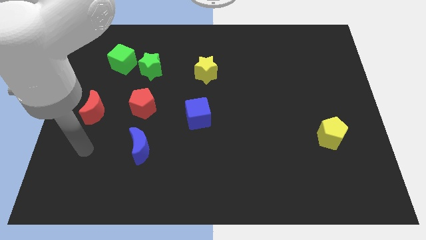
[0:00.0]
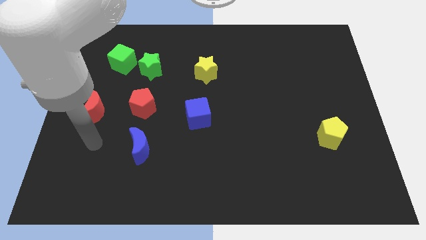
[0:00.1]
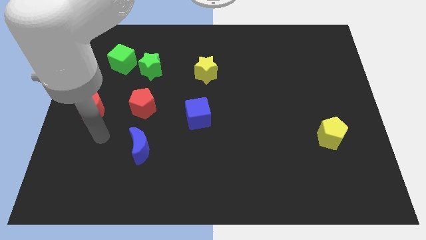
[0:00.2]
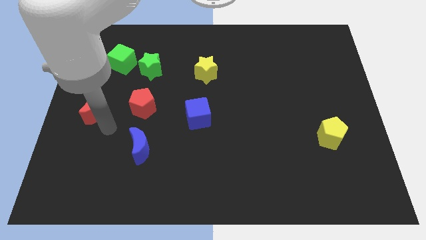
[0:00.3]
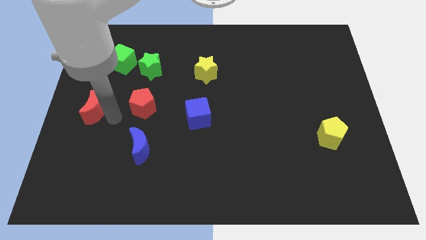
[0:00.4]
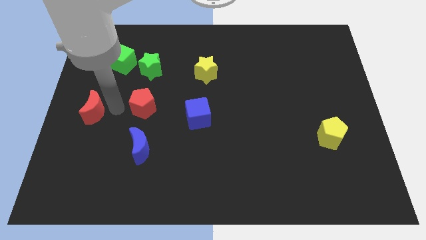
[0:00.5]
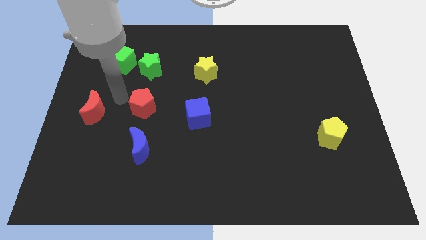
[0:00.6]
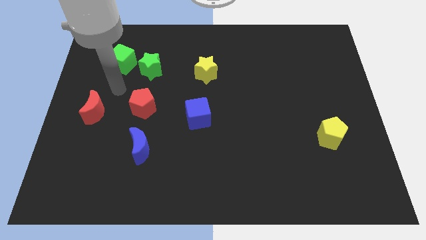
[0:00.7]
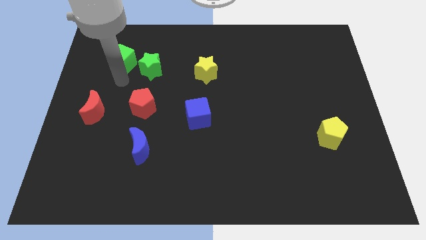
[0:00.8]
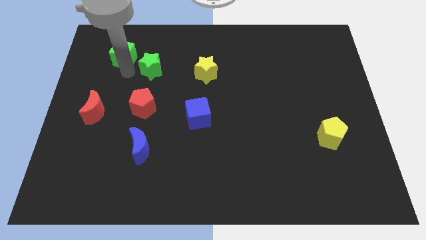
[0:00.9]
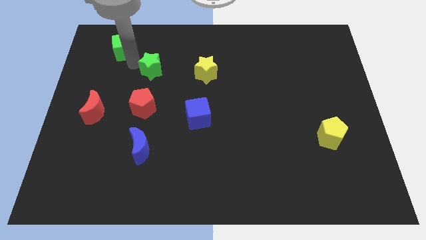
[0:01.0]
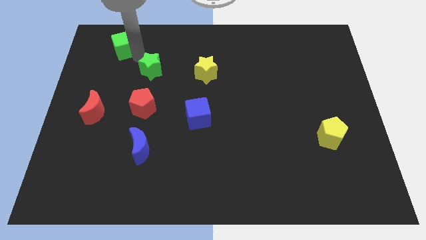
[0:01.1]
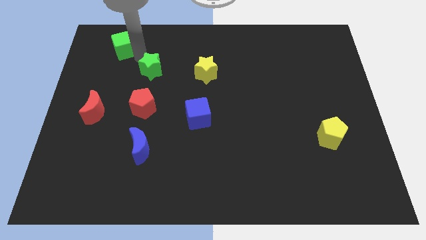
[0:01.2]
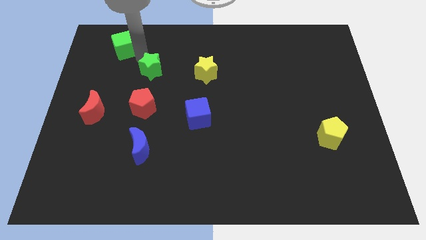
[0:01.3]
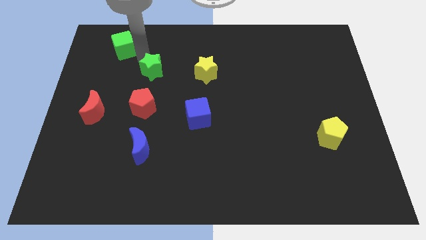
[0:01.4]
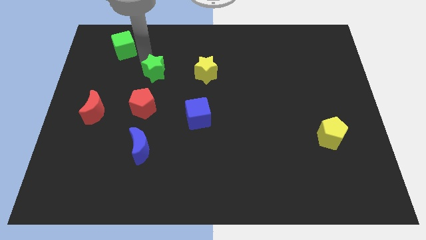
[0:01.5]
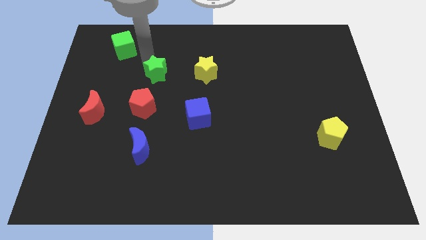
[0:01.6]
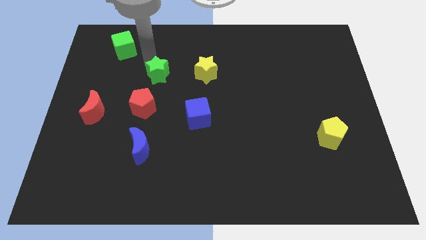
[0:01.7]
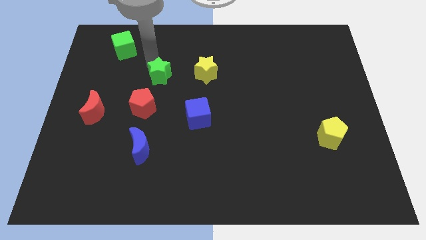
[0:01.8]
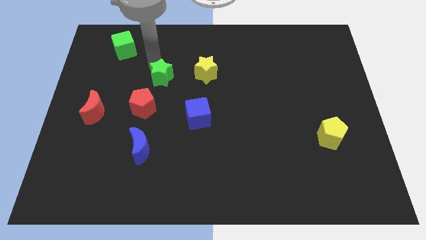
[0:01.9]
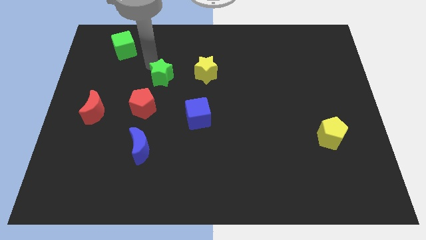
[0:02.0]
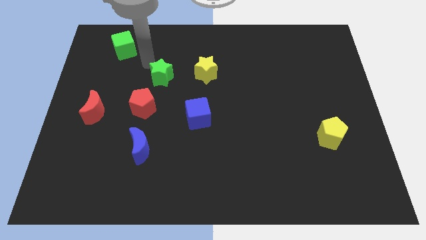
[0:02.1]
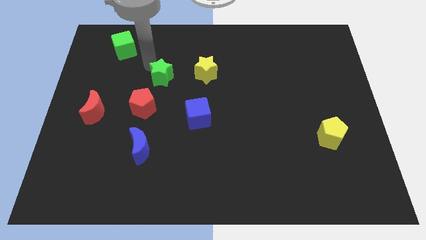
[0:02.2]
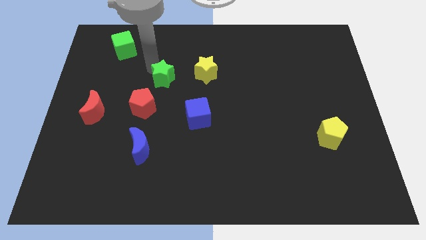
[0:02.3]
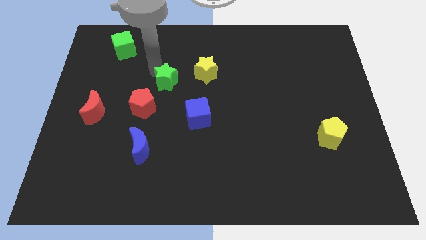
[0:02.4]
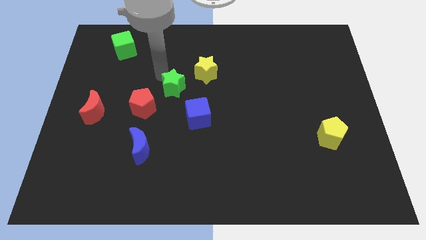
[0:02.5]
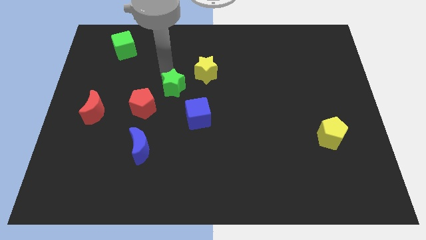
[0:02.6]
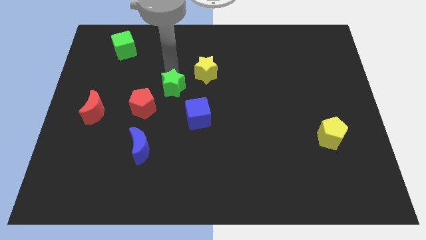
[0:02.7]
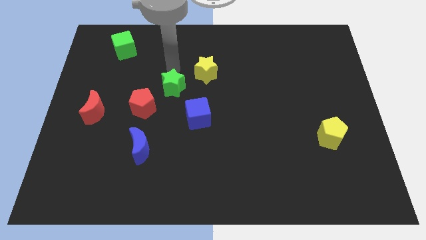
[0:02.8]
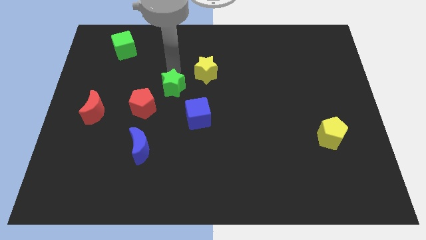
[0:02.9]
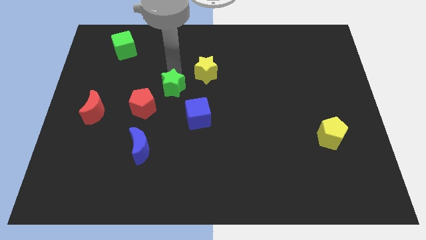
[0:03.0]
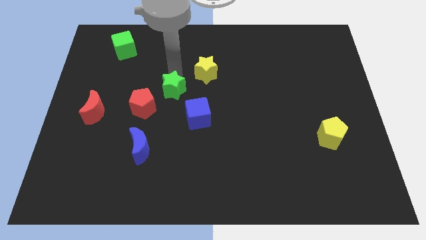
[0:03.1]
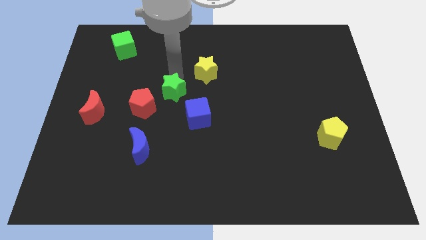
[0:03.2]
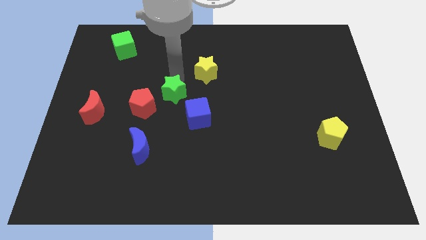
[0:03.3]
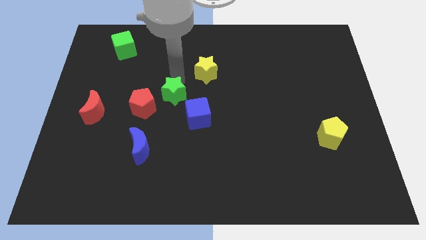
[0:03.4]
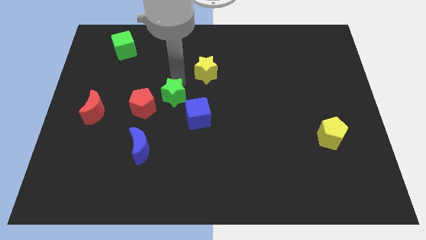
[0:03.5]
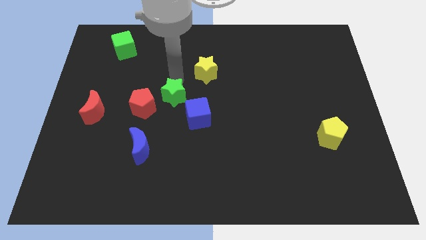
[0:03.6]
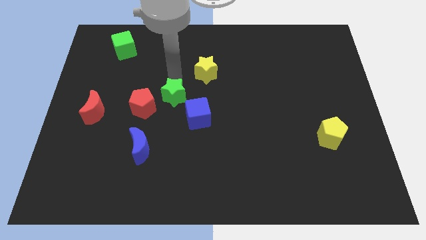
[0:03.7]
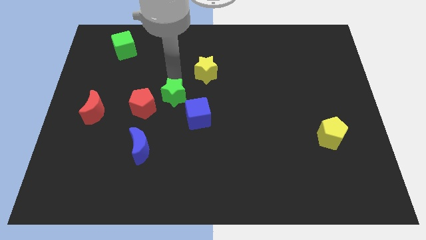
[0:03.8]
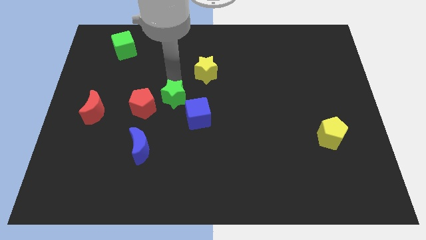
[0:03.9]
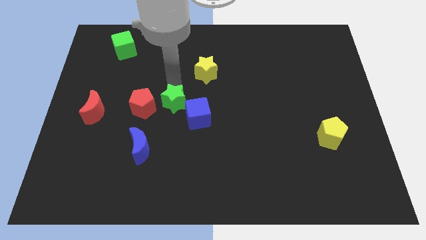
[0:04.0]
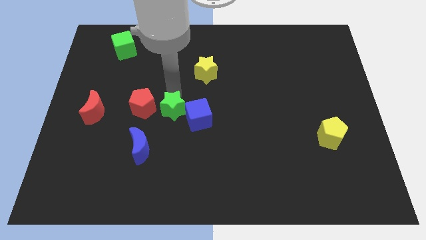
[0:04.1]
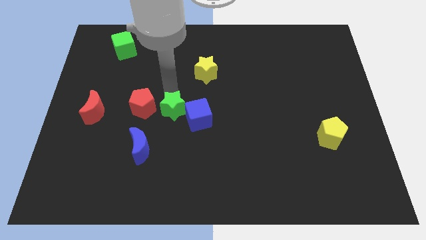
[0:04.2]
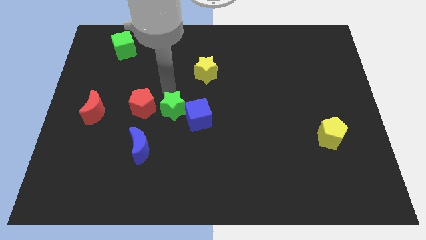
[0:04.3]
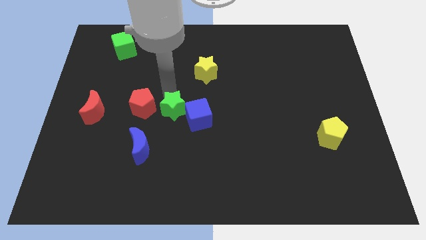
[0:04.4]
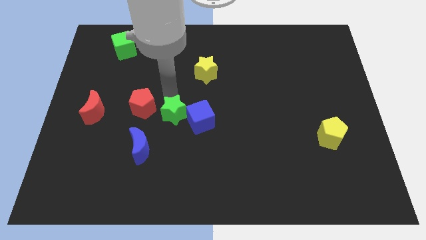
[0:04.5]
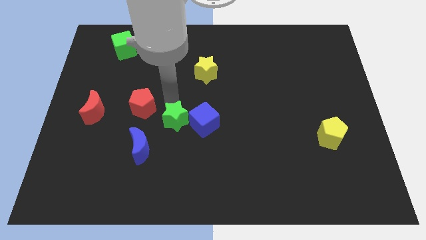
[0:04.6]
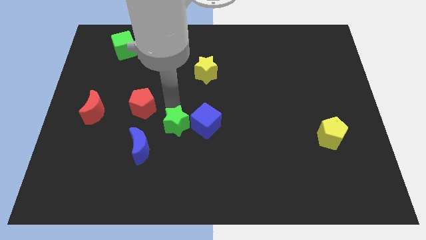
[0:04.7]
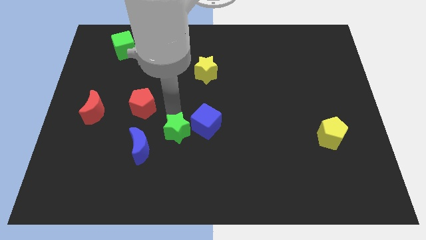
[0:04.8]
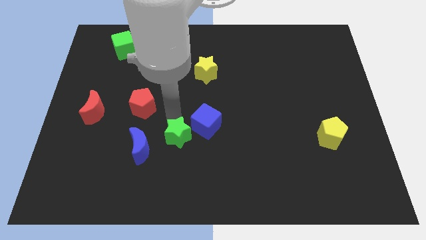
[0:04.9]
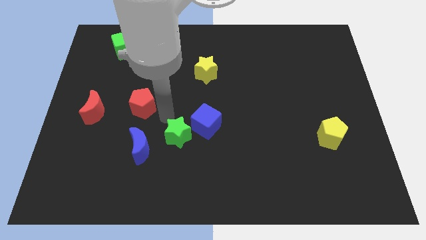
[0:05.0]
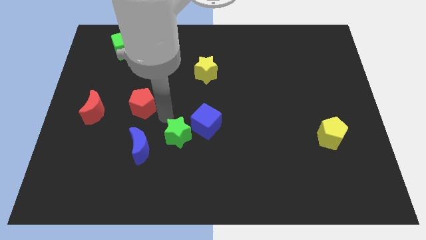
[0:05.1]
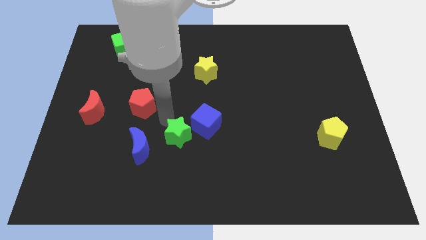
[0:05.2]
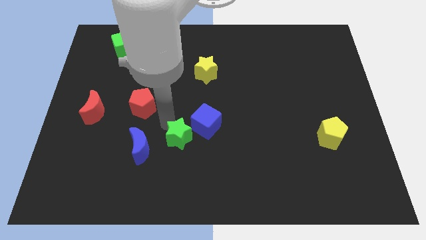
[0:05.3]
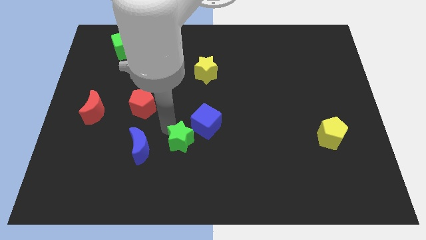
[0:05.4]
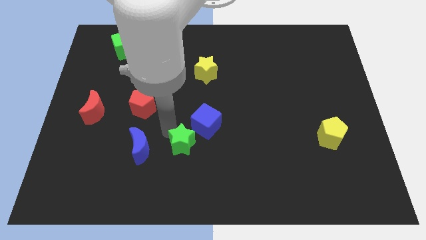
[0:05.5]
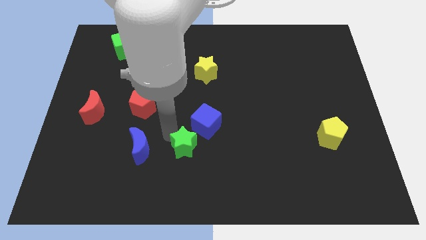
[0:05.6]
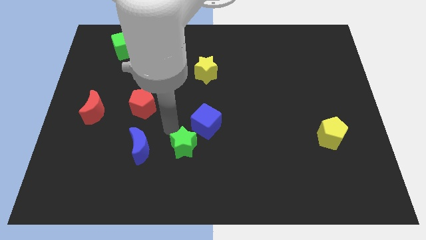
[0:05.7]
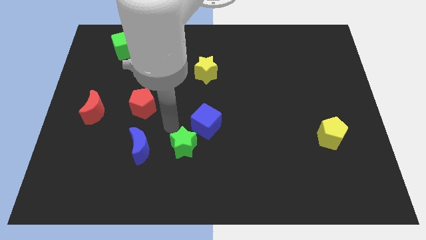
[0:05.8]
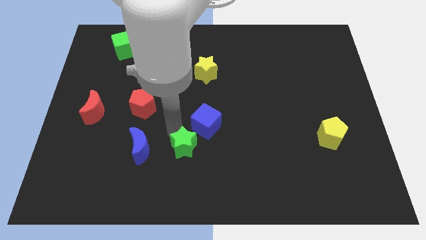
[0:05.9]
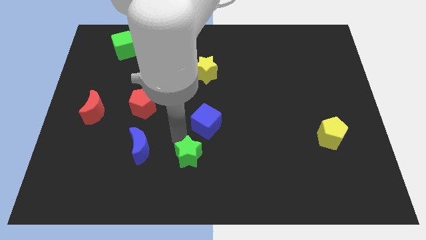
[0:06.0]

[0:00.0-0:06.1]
move the green star to the bottom side

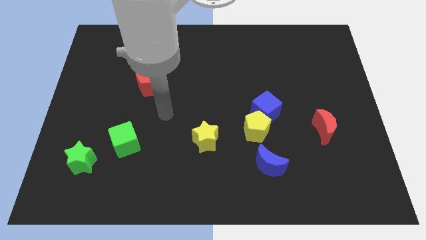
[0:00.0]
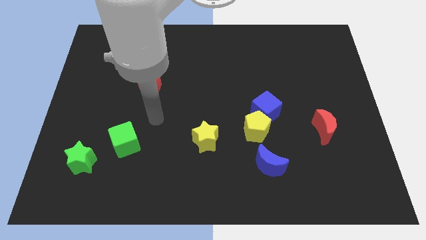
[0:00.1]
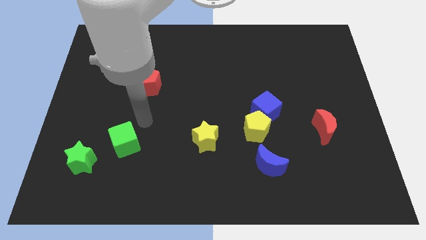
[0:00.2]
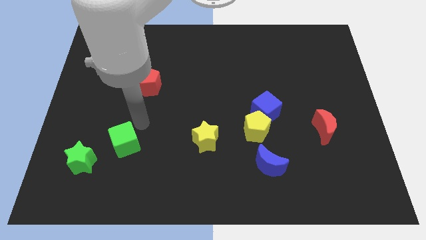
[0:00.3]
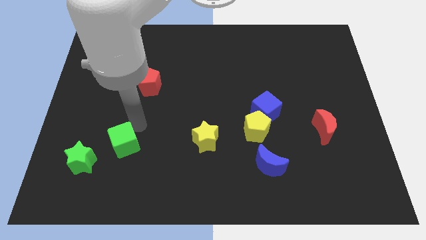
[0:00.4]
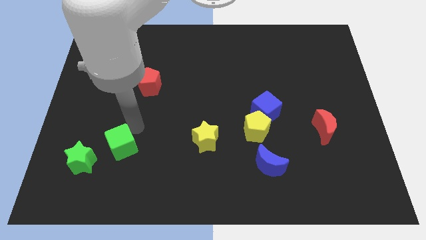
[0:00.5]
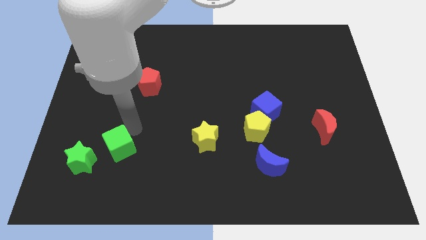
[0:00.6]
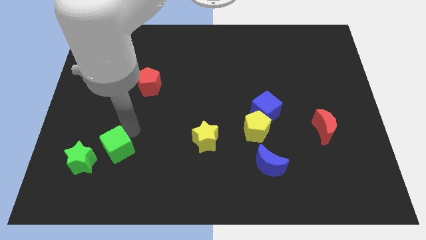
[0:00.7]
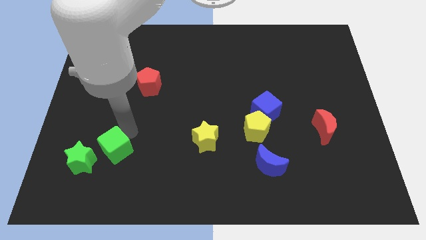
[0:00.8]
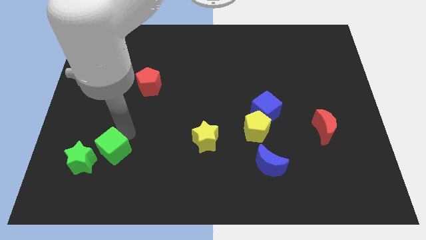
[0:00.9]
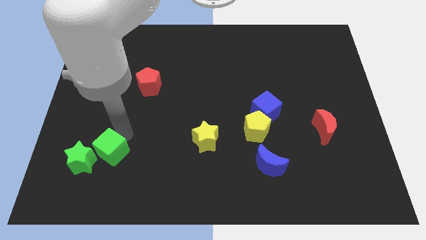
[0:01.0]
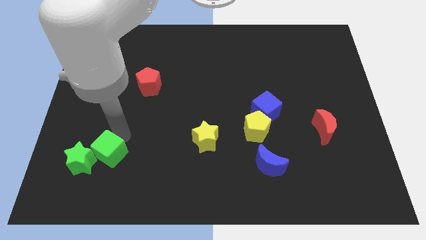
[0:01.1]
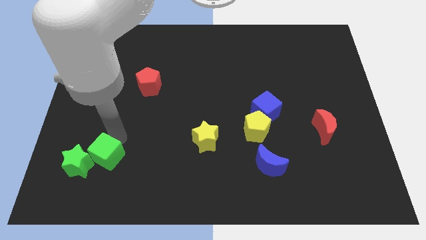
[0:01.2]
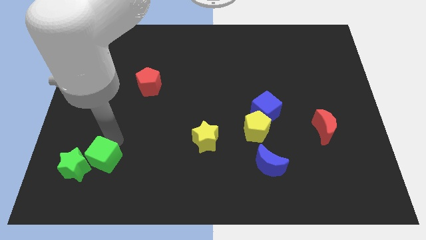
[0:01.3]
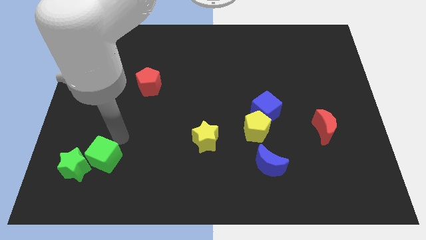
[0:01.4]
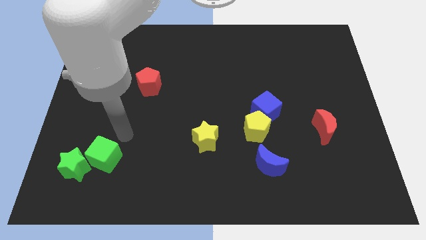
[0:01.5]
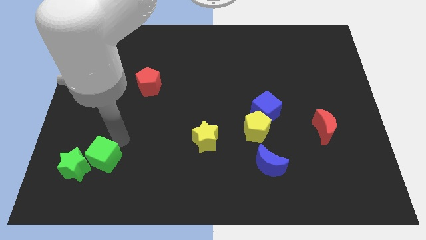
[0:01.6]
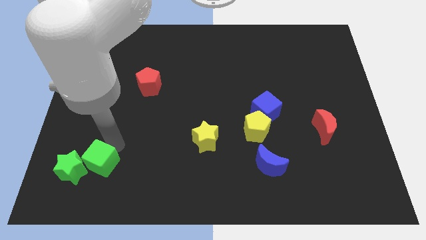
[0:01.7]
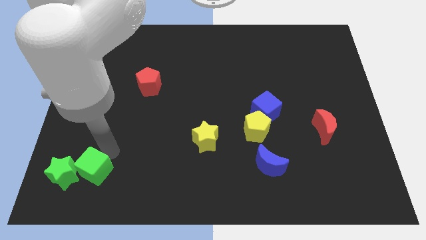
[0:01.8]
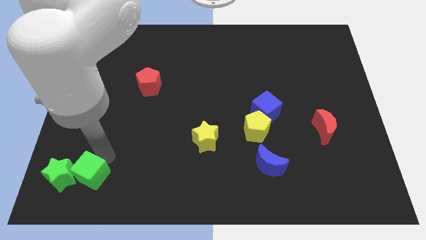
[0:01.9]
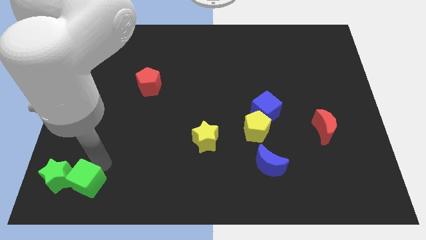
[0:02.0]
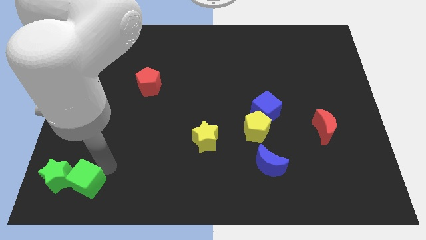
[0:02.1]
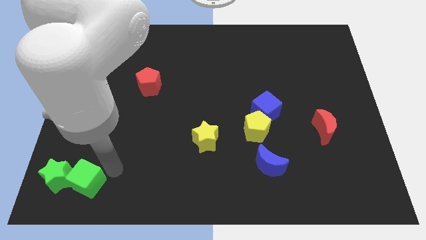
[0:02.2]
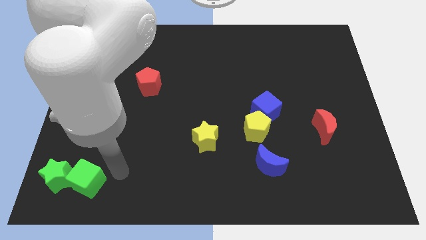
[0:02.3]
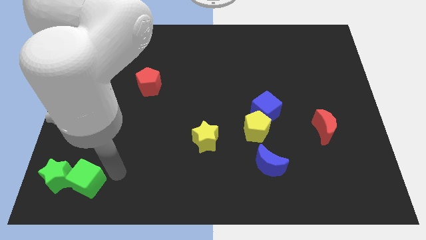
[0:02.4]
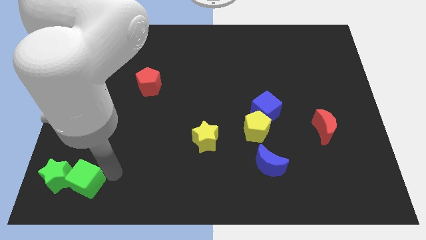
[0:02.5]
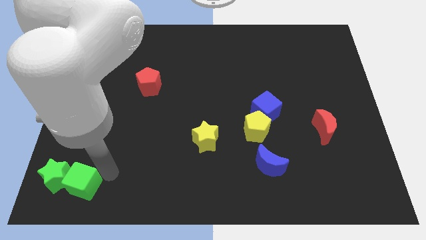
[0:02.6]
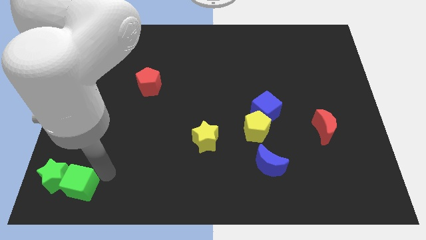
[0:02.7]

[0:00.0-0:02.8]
push the green cube to the lower left corner
